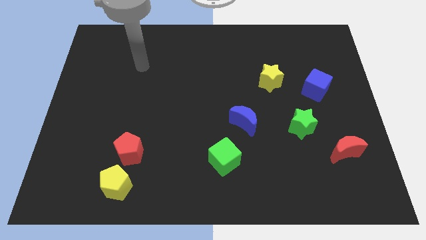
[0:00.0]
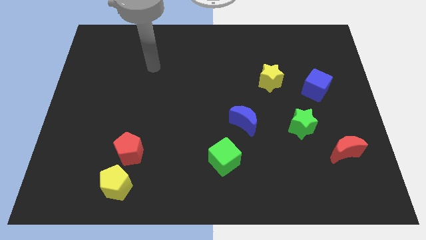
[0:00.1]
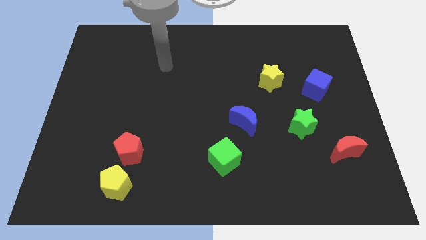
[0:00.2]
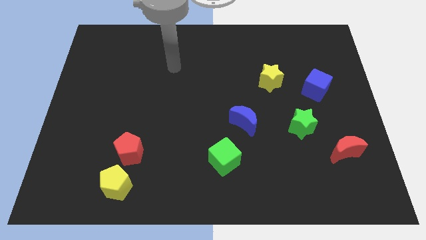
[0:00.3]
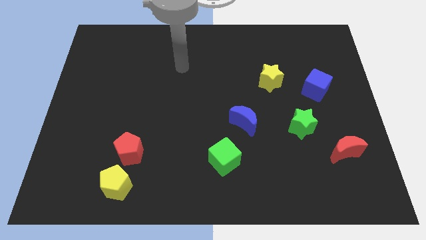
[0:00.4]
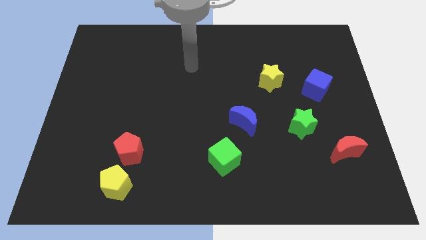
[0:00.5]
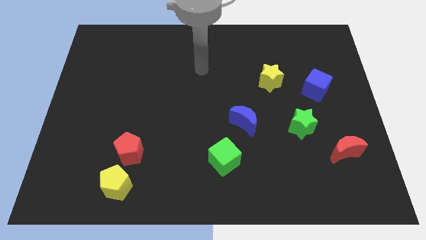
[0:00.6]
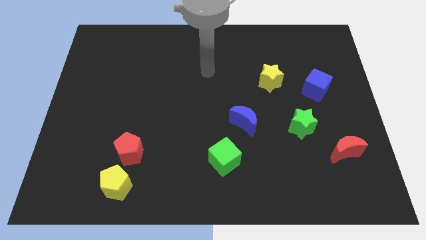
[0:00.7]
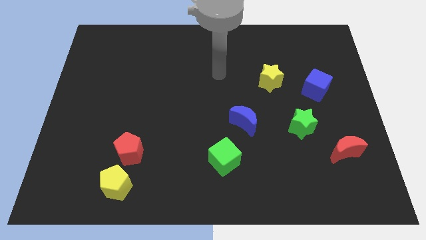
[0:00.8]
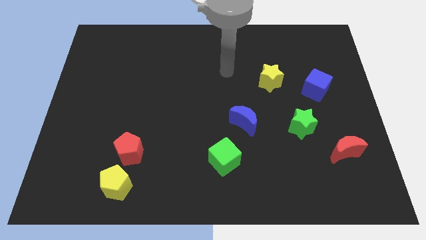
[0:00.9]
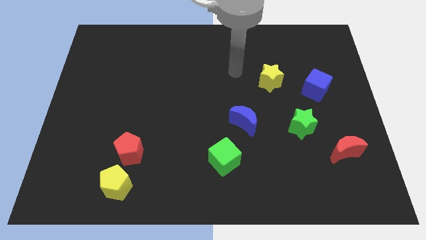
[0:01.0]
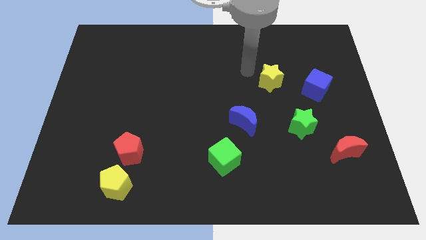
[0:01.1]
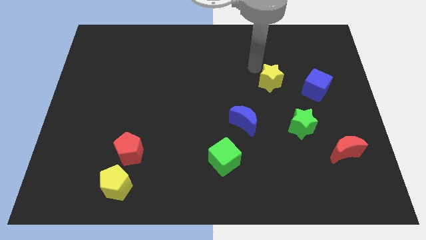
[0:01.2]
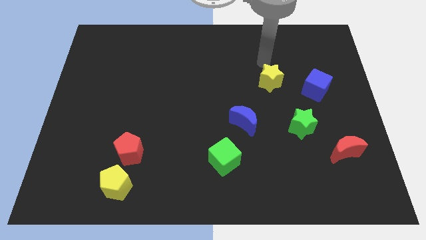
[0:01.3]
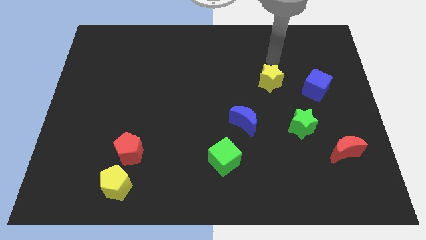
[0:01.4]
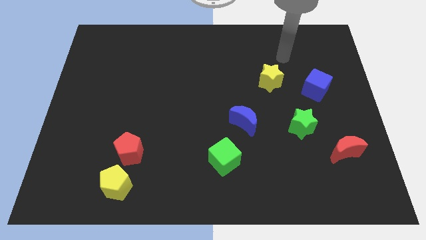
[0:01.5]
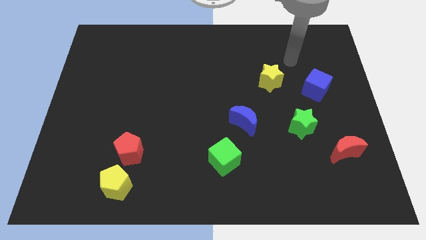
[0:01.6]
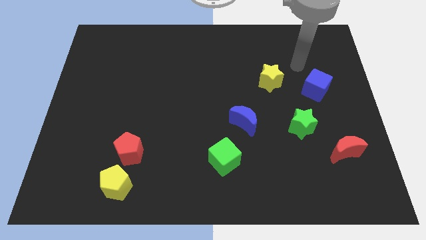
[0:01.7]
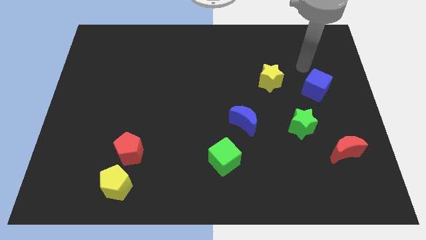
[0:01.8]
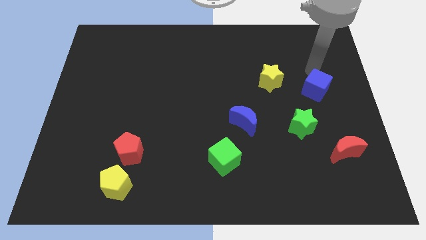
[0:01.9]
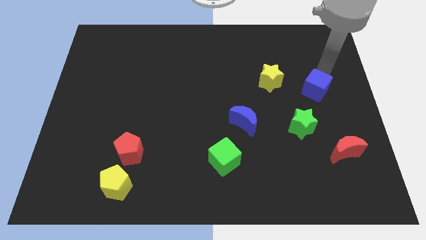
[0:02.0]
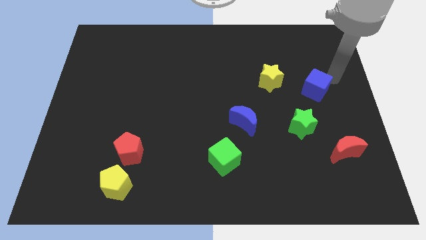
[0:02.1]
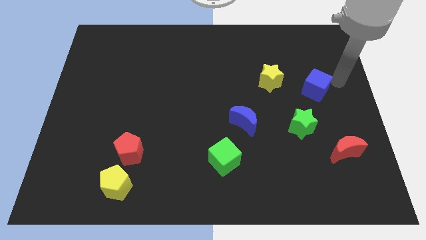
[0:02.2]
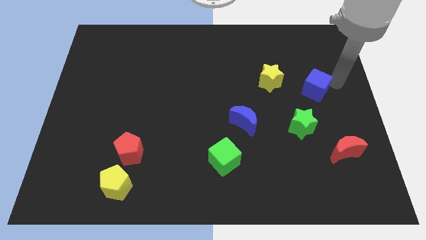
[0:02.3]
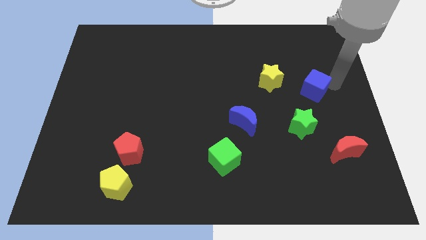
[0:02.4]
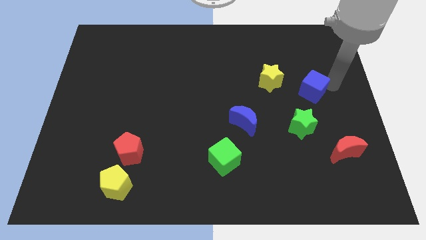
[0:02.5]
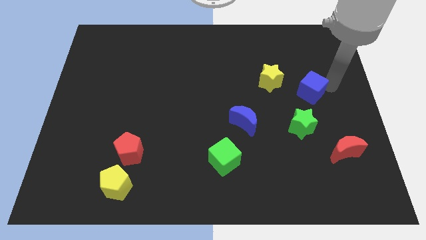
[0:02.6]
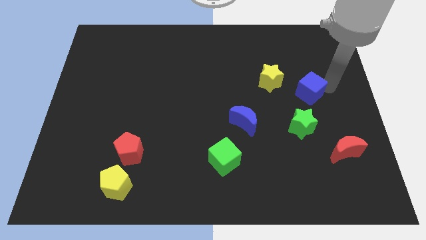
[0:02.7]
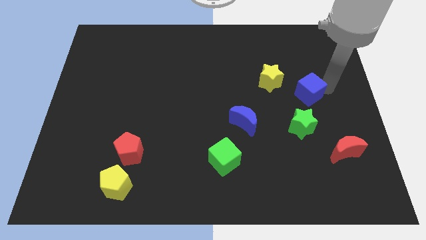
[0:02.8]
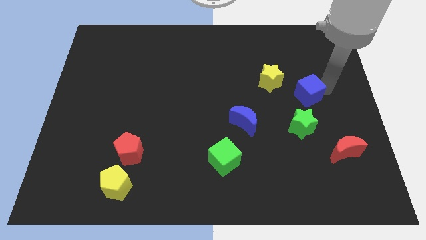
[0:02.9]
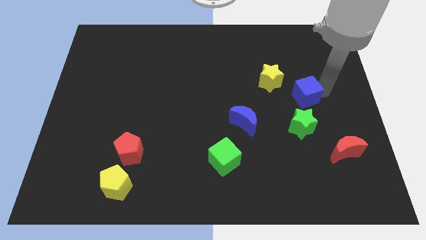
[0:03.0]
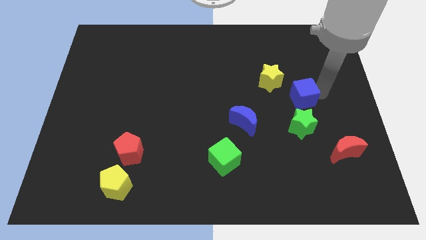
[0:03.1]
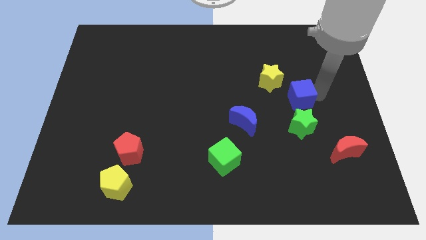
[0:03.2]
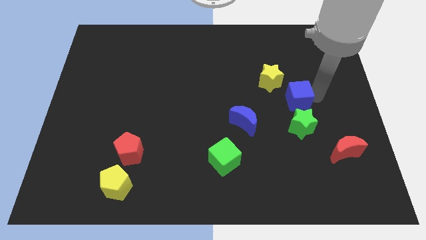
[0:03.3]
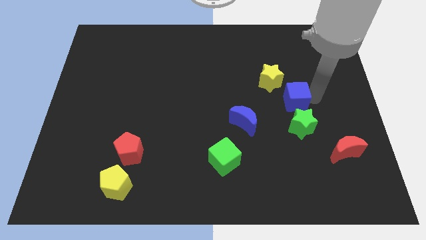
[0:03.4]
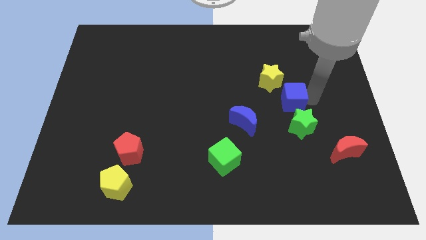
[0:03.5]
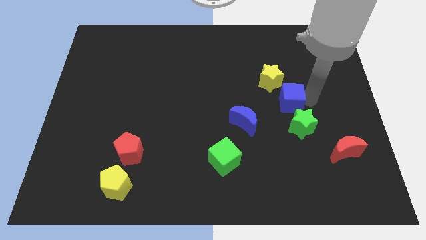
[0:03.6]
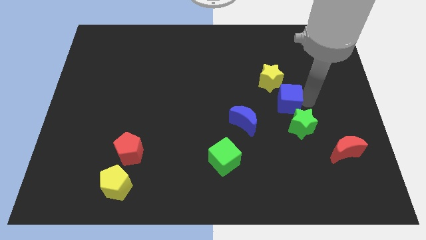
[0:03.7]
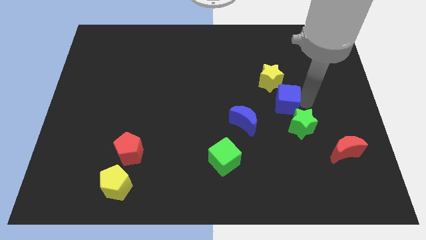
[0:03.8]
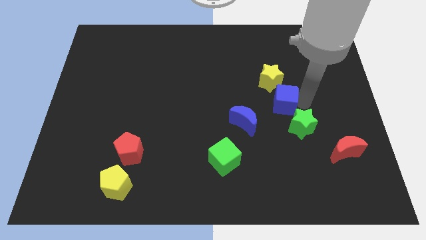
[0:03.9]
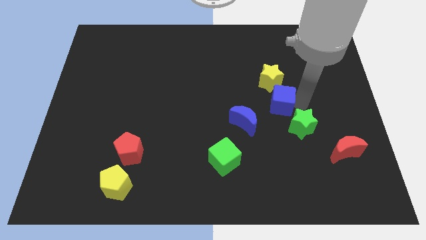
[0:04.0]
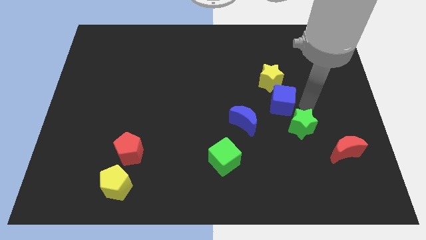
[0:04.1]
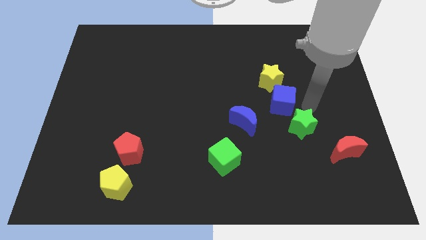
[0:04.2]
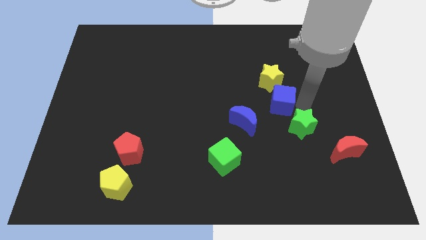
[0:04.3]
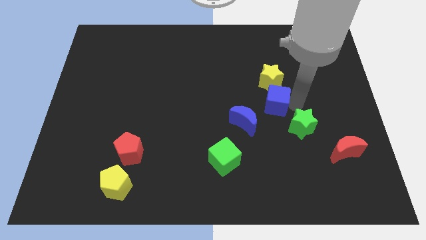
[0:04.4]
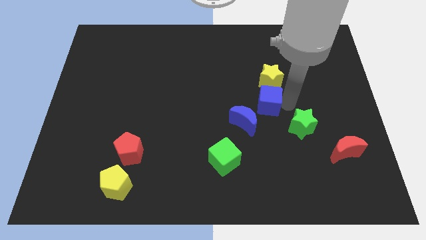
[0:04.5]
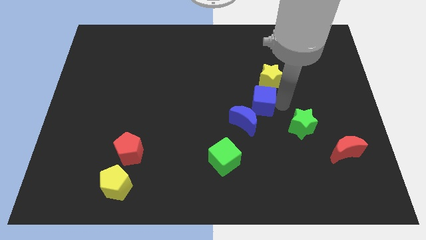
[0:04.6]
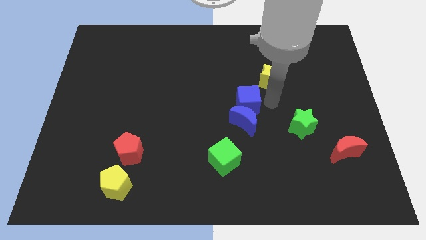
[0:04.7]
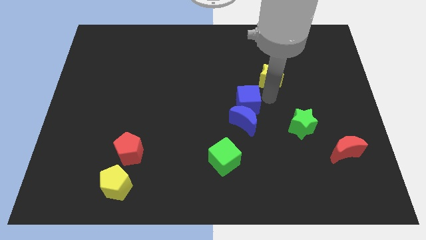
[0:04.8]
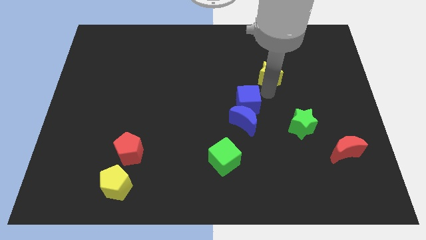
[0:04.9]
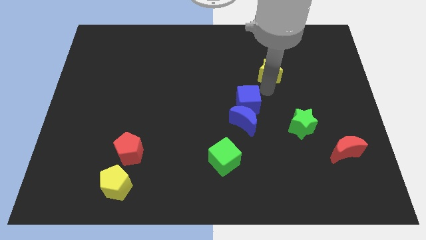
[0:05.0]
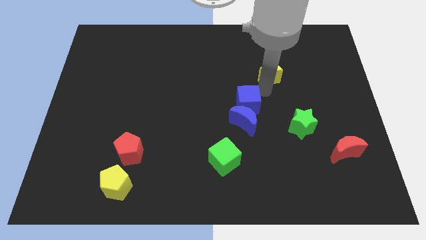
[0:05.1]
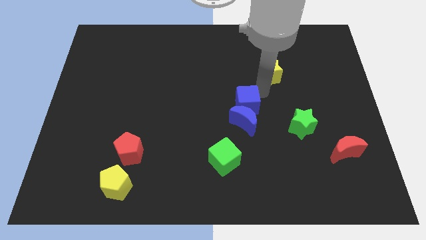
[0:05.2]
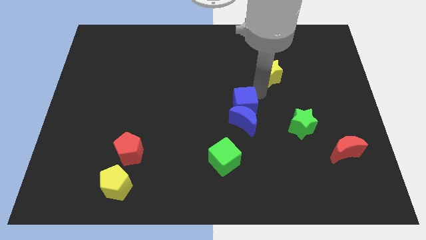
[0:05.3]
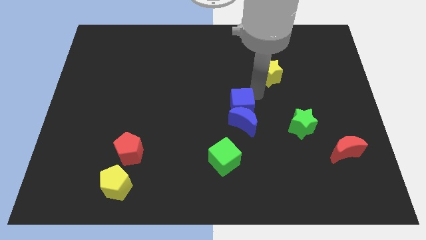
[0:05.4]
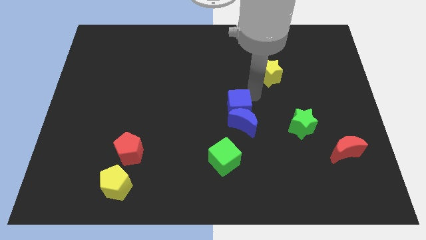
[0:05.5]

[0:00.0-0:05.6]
move the blue cube above the green cube
